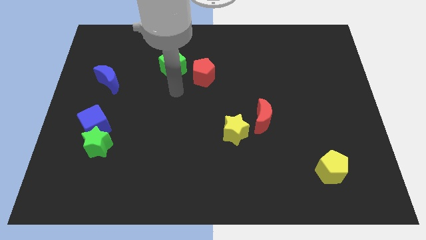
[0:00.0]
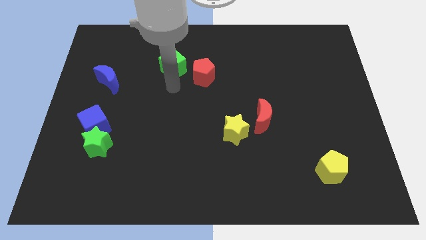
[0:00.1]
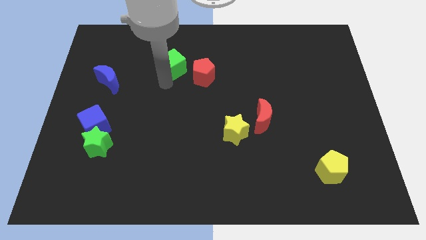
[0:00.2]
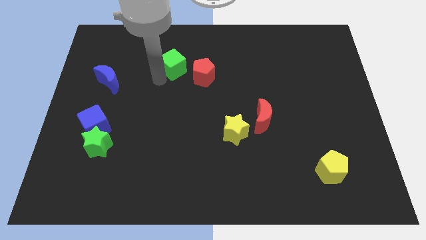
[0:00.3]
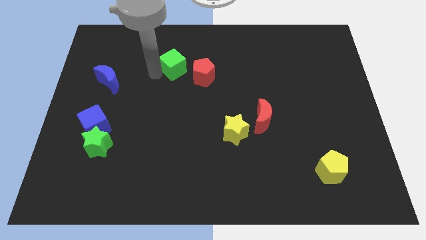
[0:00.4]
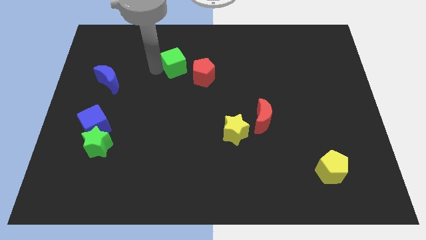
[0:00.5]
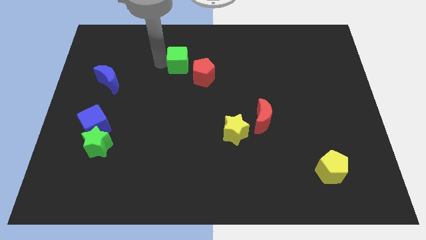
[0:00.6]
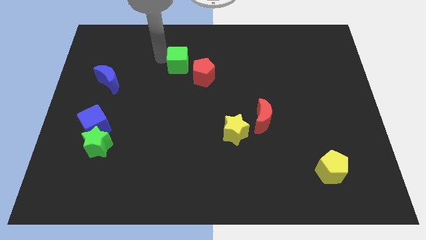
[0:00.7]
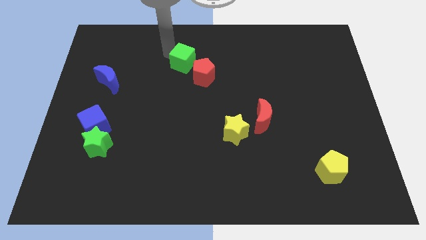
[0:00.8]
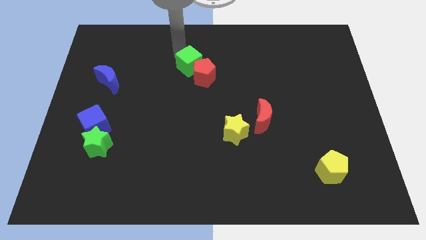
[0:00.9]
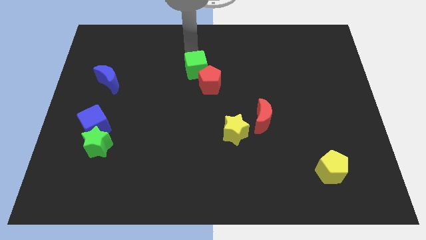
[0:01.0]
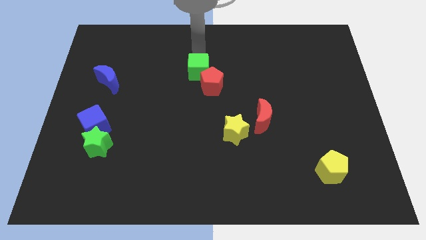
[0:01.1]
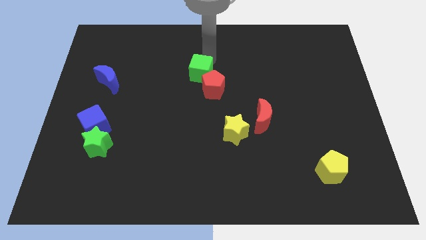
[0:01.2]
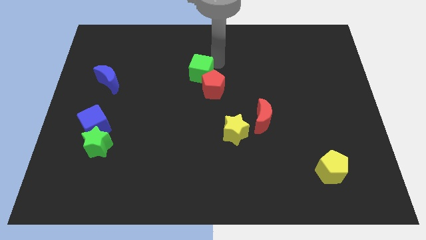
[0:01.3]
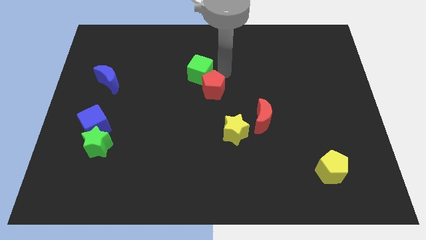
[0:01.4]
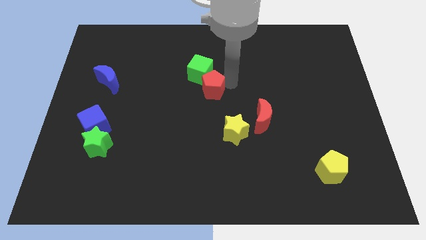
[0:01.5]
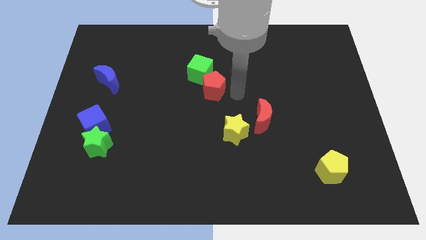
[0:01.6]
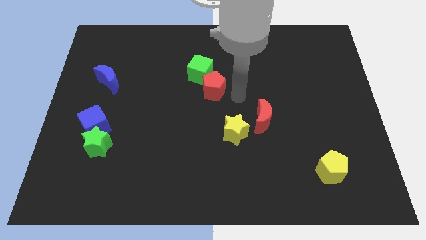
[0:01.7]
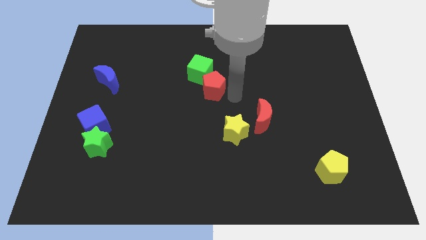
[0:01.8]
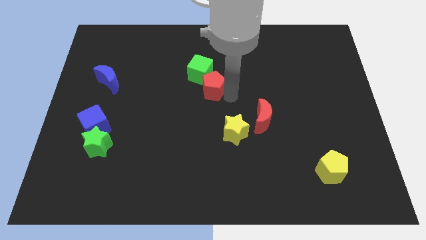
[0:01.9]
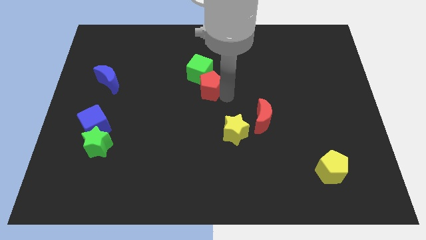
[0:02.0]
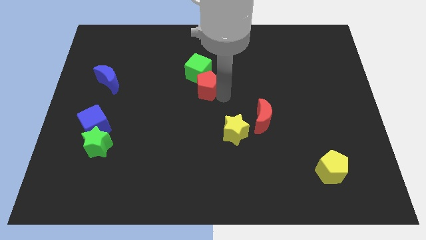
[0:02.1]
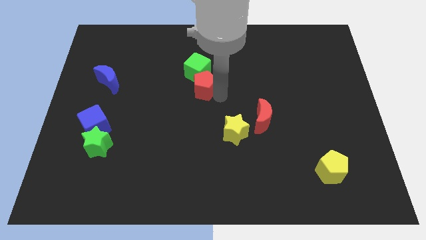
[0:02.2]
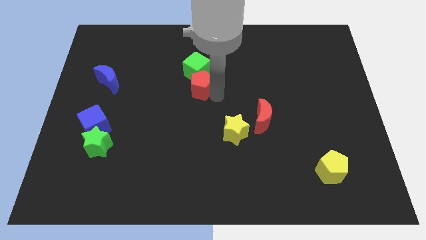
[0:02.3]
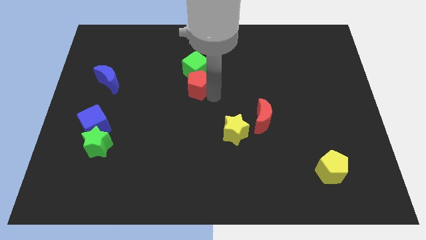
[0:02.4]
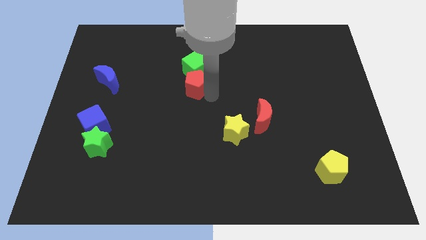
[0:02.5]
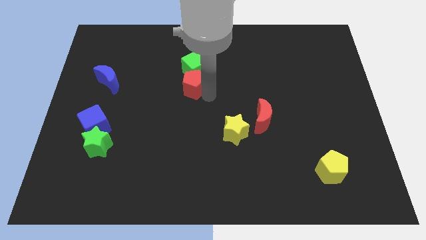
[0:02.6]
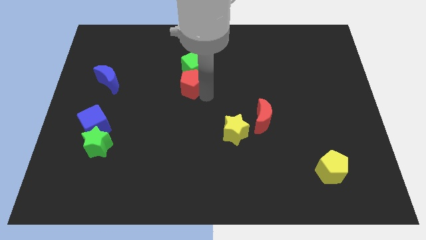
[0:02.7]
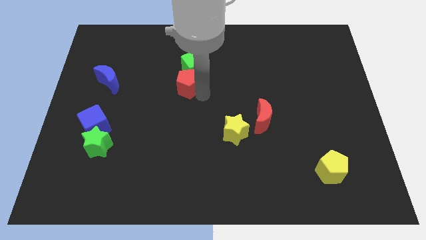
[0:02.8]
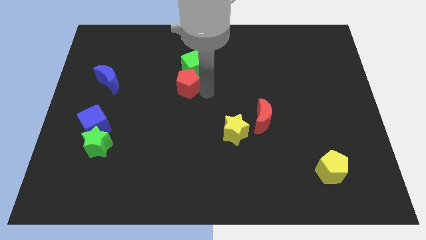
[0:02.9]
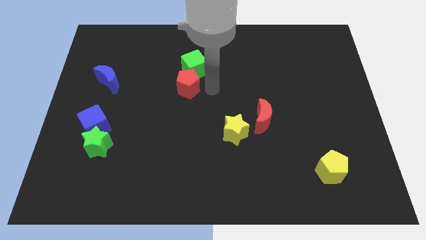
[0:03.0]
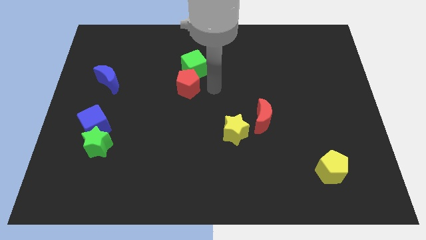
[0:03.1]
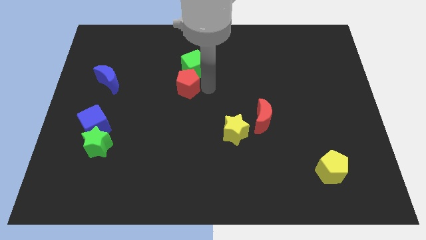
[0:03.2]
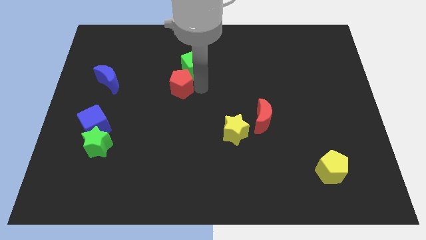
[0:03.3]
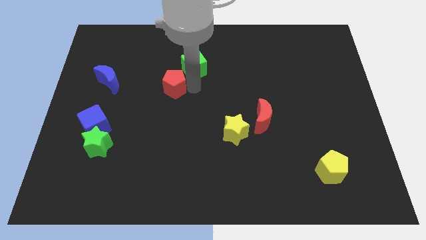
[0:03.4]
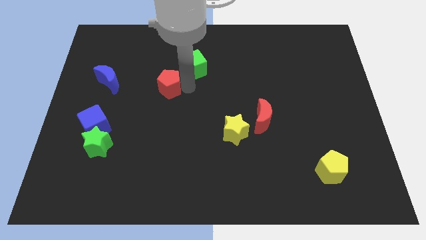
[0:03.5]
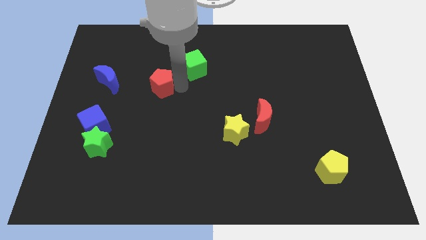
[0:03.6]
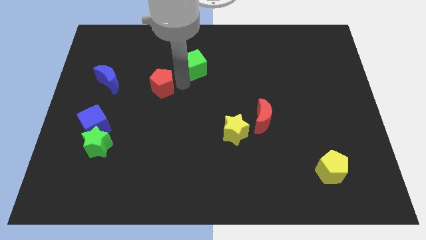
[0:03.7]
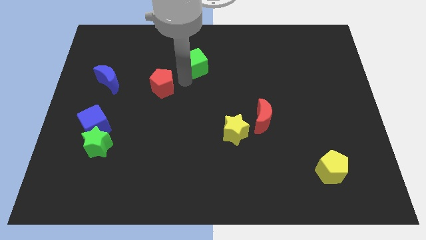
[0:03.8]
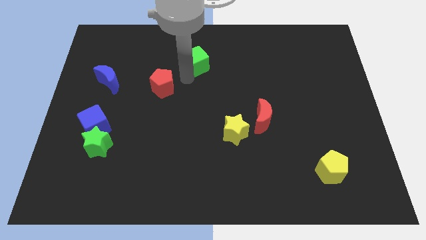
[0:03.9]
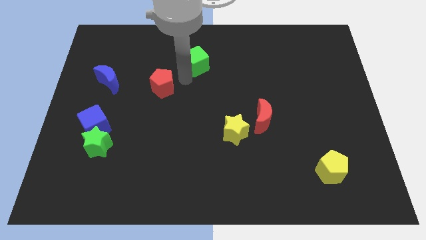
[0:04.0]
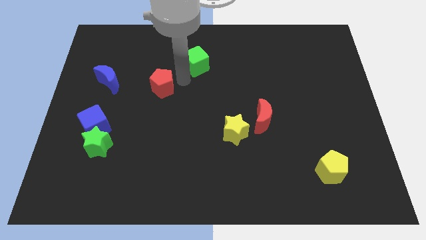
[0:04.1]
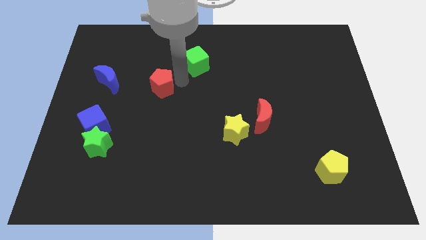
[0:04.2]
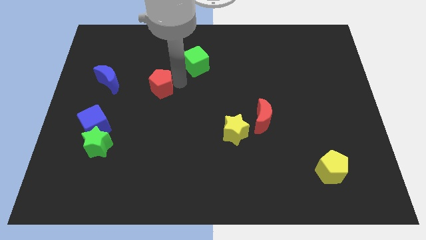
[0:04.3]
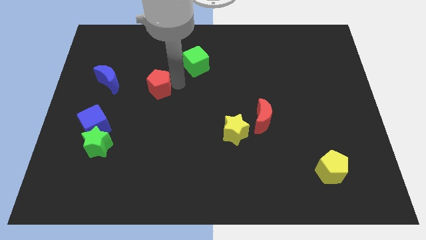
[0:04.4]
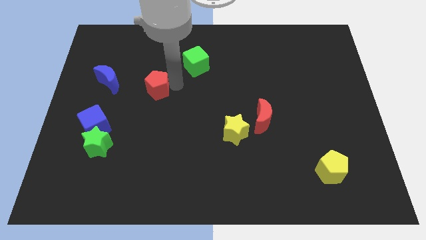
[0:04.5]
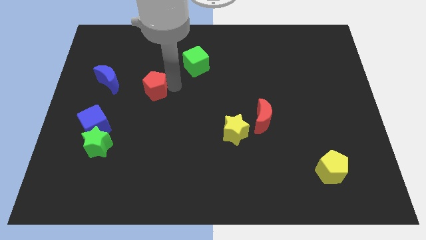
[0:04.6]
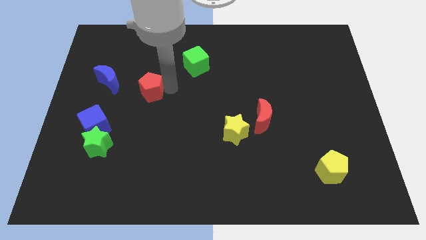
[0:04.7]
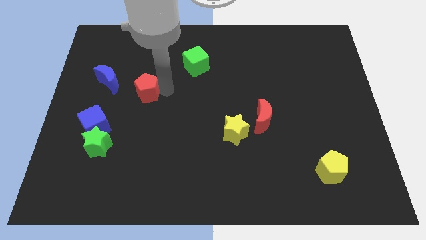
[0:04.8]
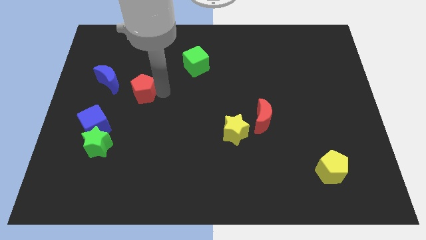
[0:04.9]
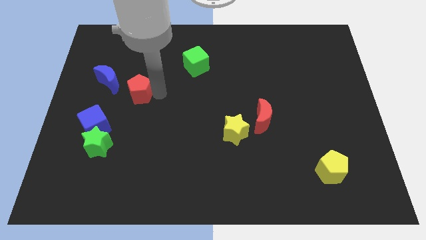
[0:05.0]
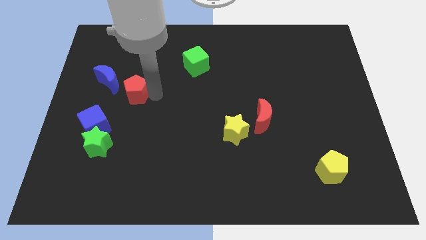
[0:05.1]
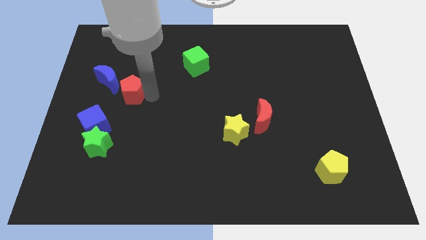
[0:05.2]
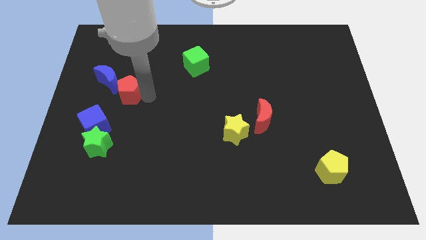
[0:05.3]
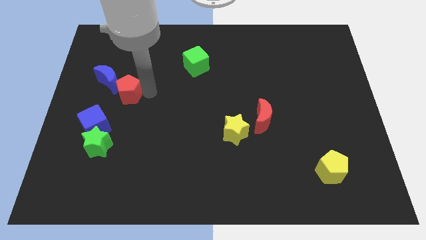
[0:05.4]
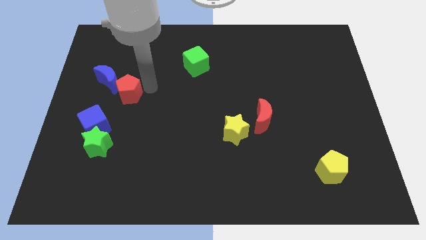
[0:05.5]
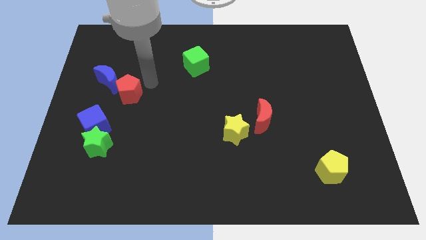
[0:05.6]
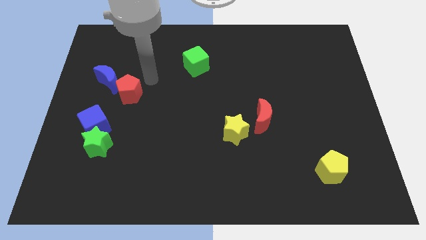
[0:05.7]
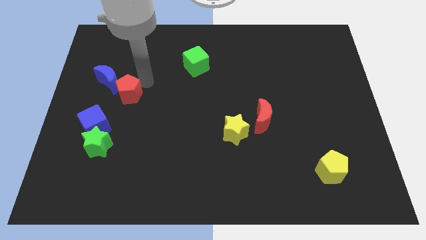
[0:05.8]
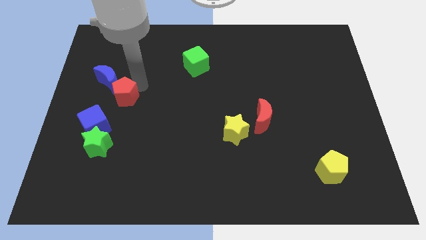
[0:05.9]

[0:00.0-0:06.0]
push the red pentagon above the green star

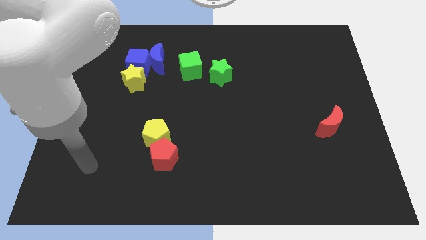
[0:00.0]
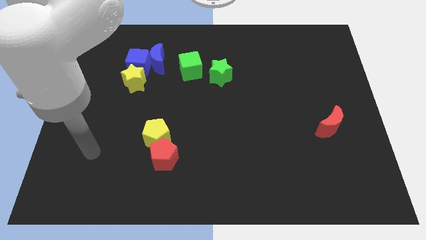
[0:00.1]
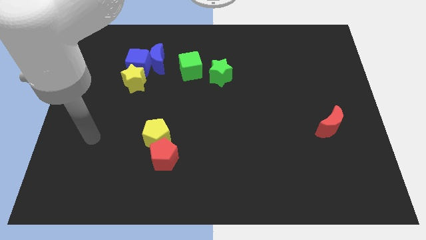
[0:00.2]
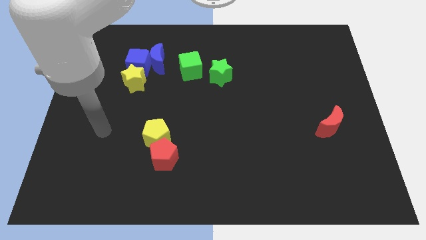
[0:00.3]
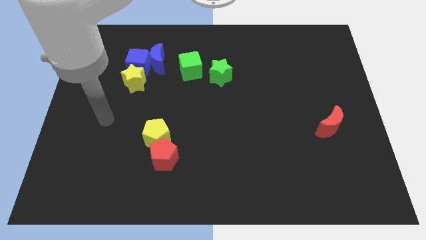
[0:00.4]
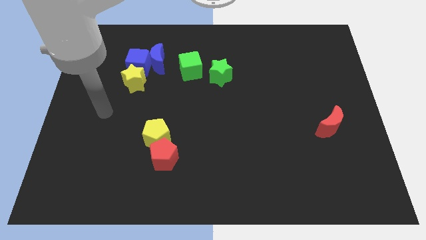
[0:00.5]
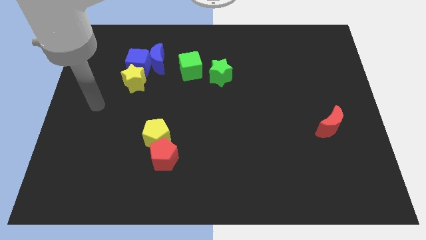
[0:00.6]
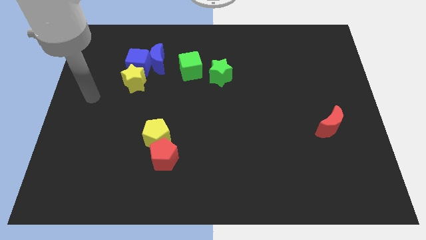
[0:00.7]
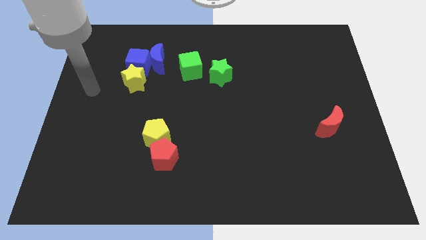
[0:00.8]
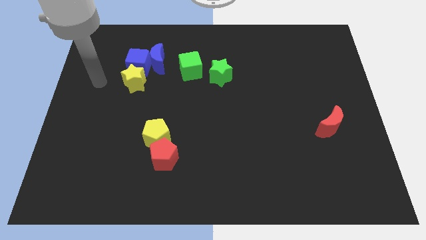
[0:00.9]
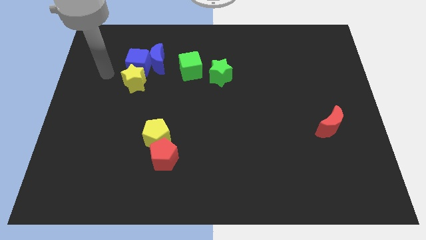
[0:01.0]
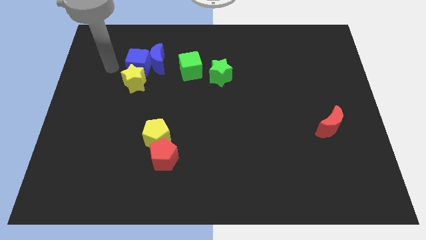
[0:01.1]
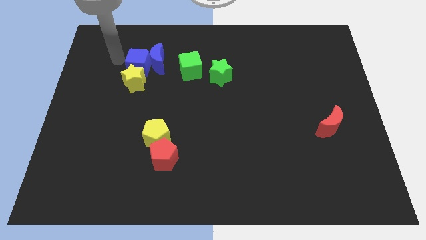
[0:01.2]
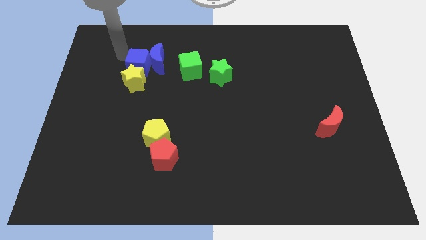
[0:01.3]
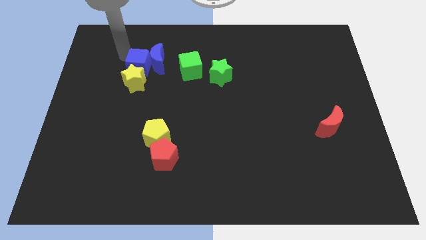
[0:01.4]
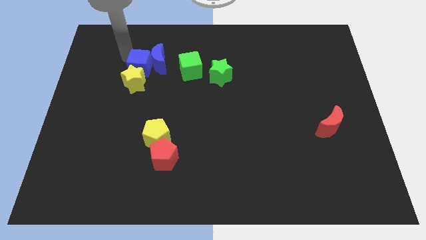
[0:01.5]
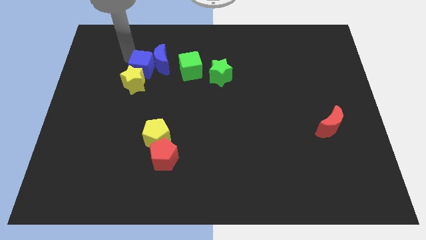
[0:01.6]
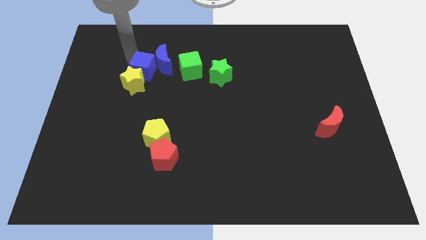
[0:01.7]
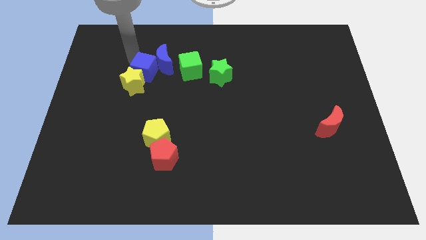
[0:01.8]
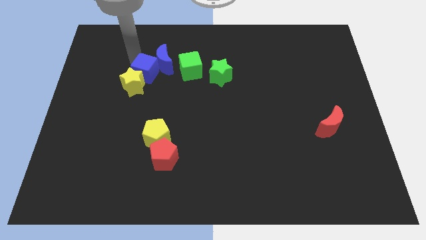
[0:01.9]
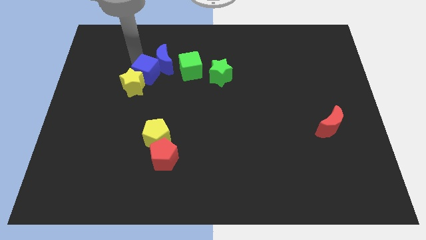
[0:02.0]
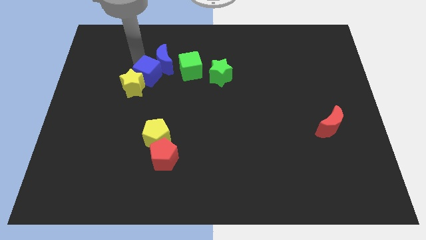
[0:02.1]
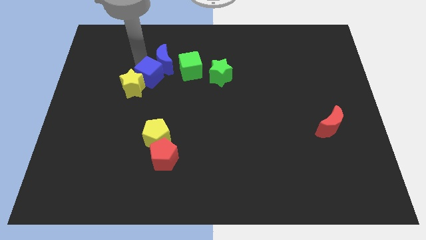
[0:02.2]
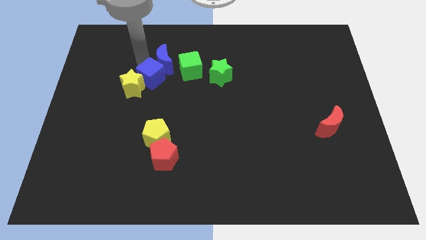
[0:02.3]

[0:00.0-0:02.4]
move the blue cube diagonally down and to the left of the green cube
